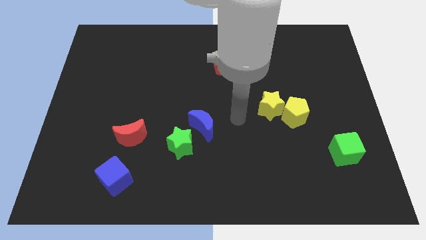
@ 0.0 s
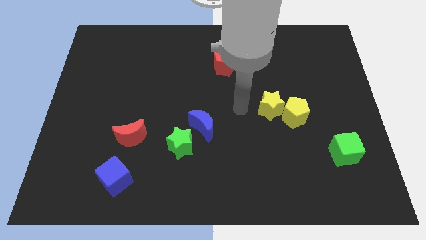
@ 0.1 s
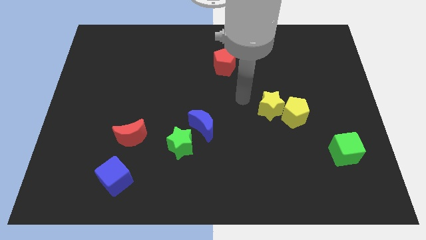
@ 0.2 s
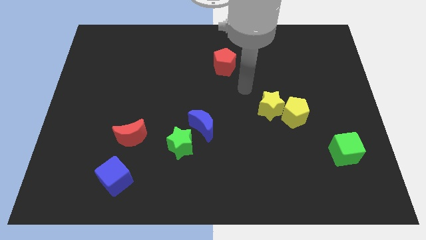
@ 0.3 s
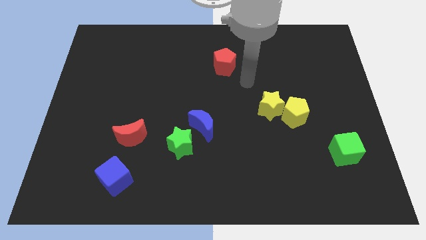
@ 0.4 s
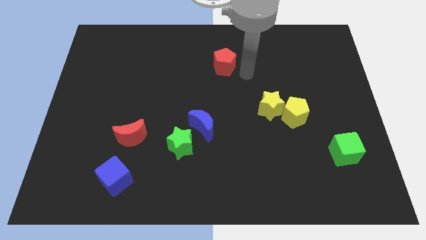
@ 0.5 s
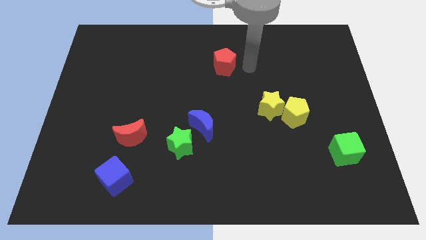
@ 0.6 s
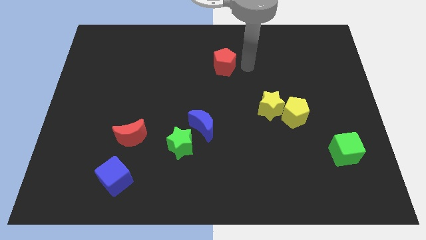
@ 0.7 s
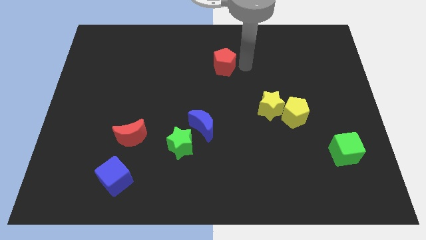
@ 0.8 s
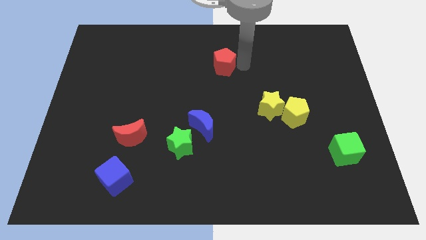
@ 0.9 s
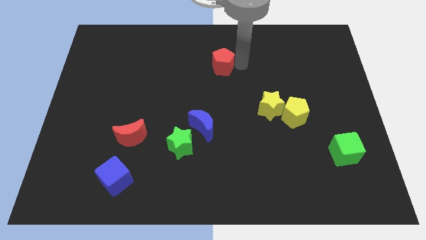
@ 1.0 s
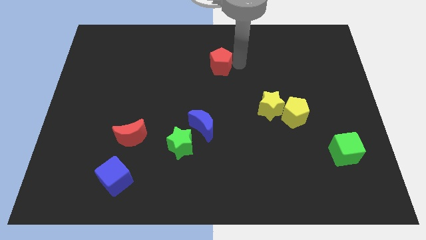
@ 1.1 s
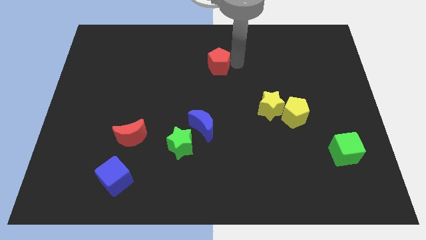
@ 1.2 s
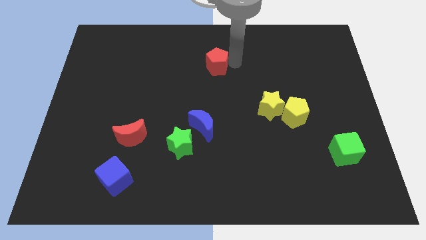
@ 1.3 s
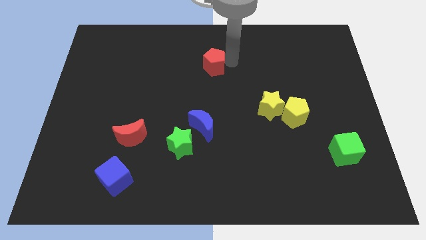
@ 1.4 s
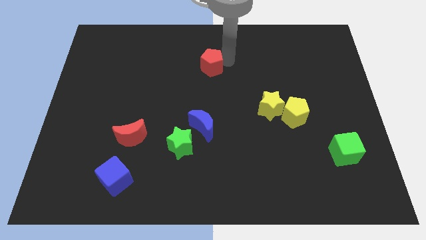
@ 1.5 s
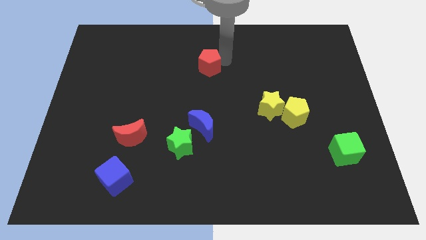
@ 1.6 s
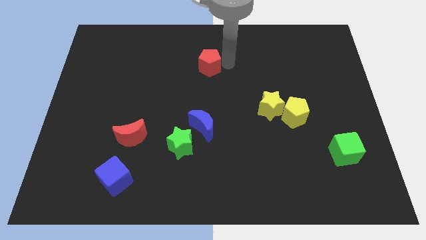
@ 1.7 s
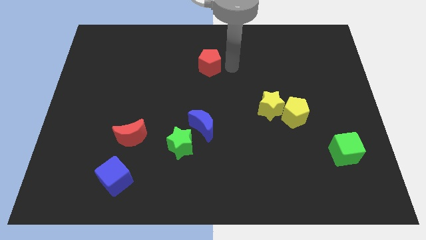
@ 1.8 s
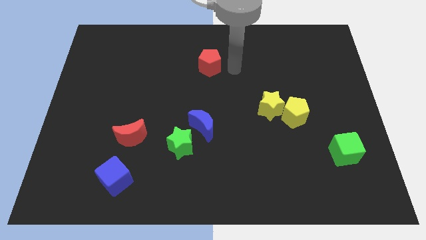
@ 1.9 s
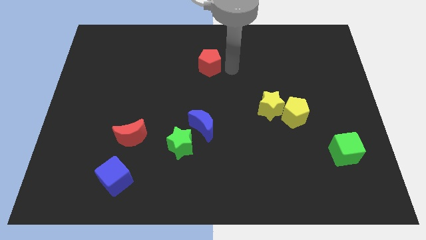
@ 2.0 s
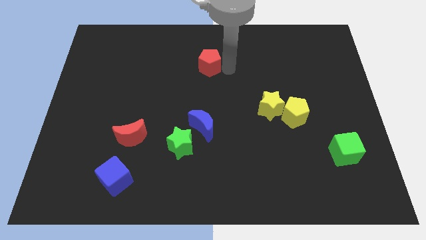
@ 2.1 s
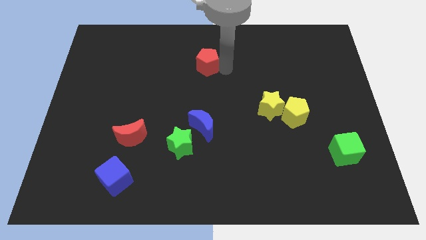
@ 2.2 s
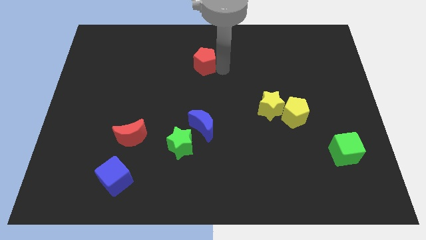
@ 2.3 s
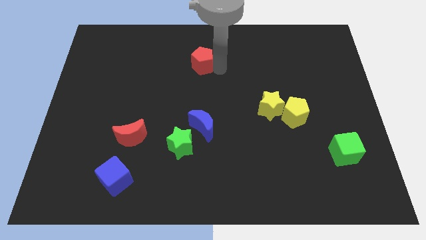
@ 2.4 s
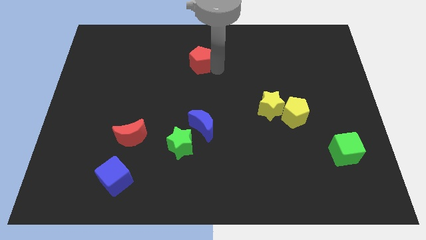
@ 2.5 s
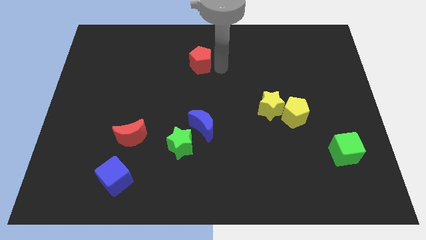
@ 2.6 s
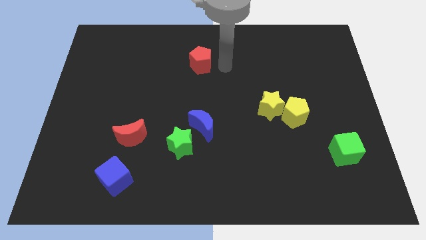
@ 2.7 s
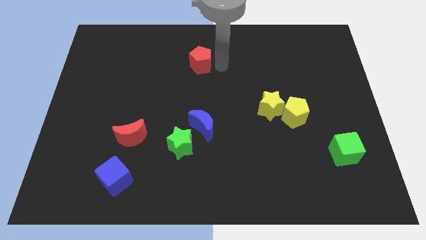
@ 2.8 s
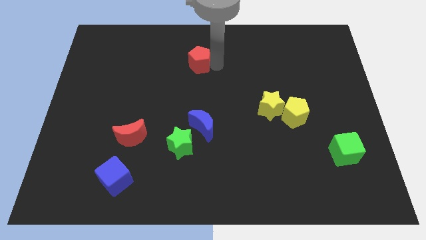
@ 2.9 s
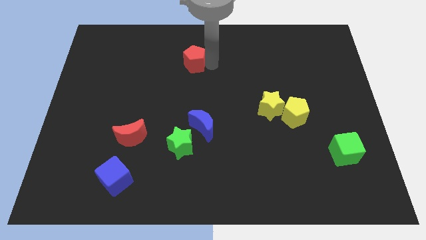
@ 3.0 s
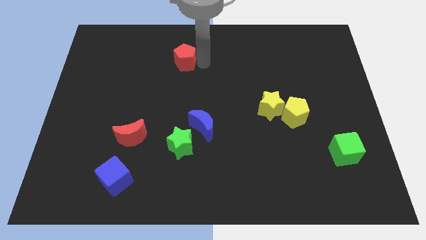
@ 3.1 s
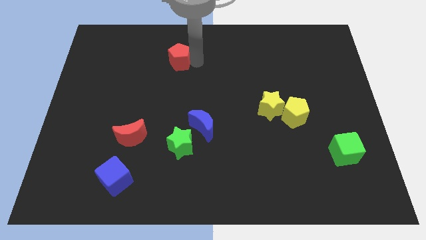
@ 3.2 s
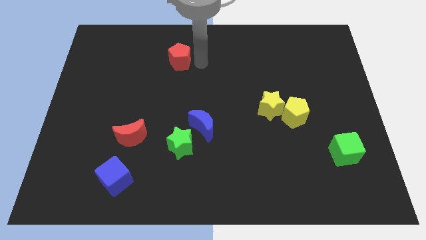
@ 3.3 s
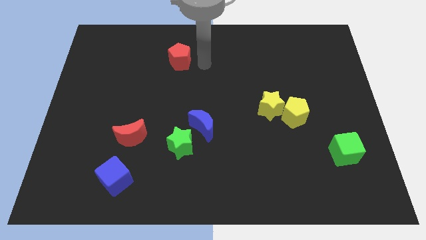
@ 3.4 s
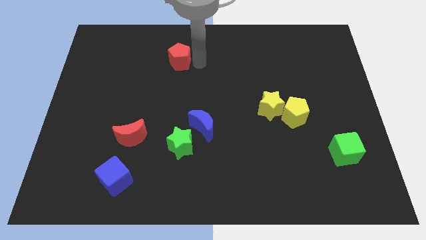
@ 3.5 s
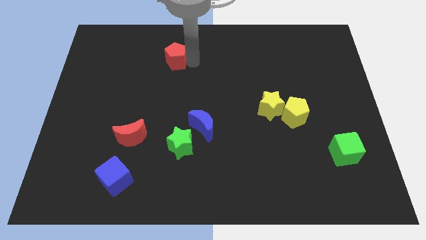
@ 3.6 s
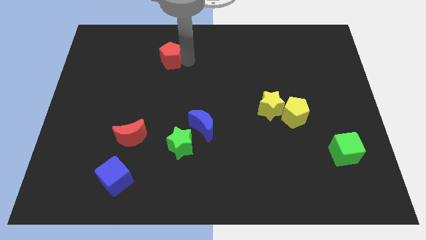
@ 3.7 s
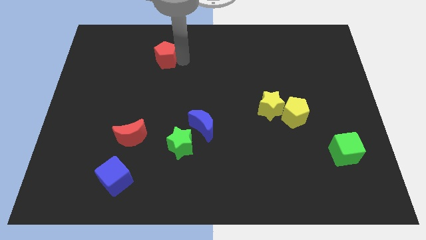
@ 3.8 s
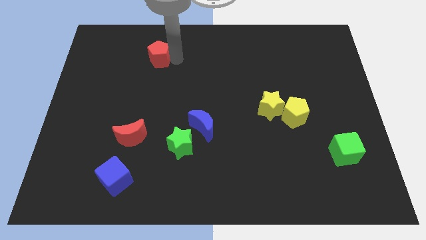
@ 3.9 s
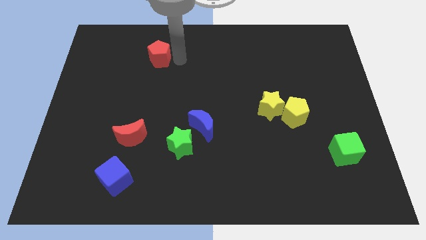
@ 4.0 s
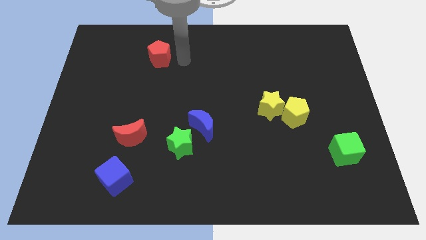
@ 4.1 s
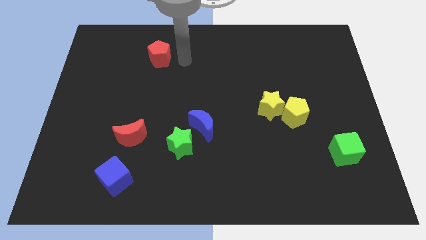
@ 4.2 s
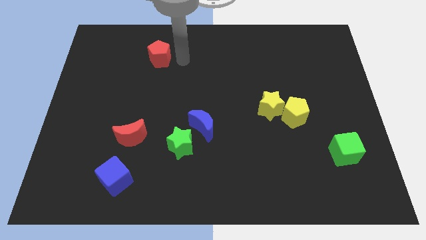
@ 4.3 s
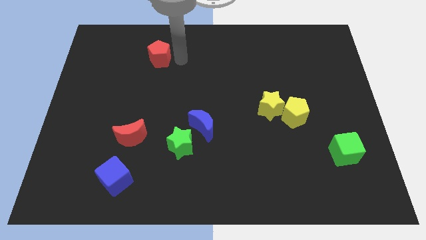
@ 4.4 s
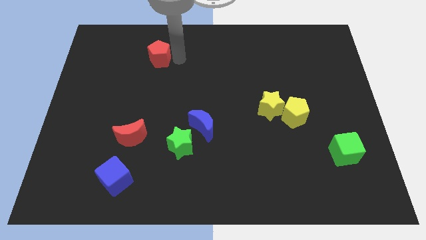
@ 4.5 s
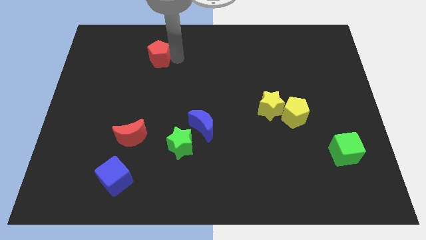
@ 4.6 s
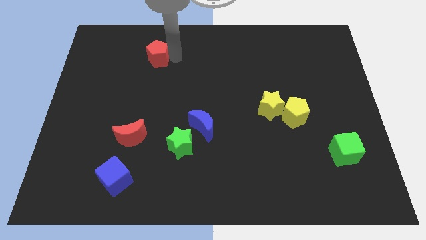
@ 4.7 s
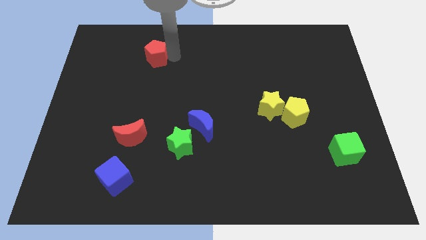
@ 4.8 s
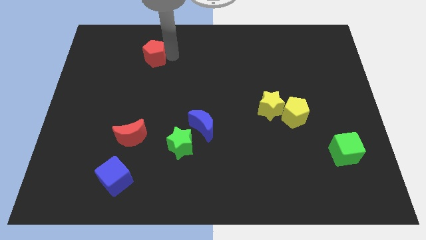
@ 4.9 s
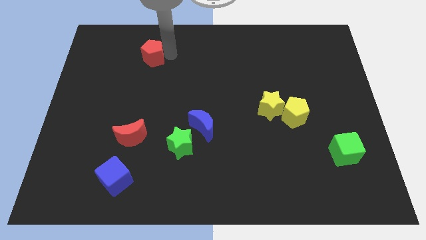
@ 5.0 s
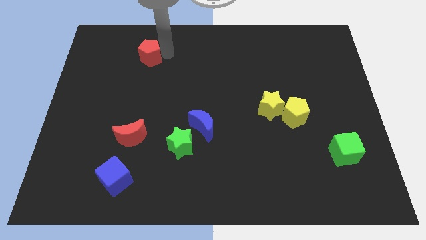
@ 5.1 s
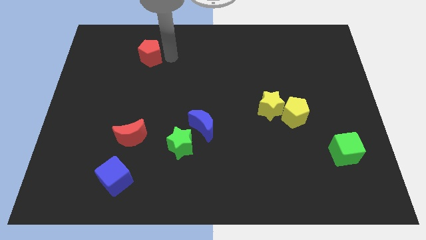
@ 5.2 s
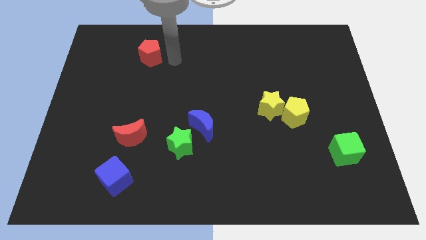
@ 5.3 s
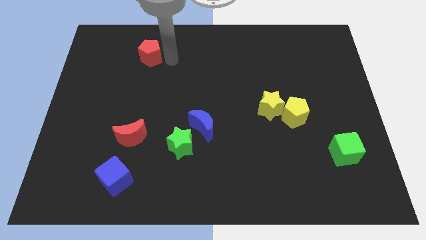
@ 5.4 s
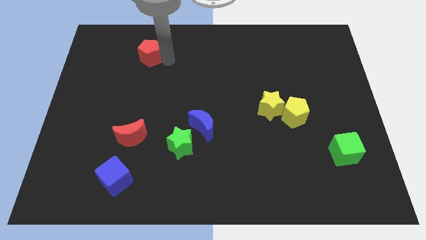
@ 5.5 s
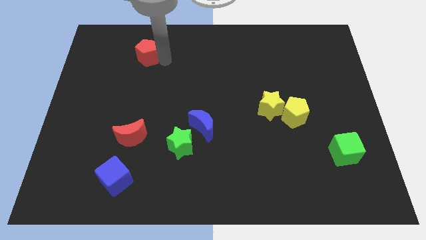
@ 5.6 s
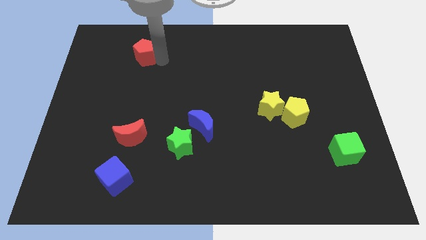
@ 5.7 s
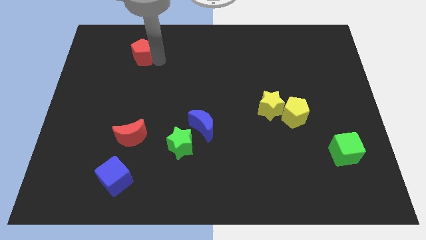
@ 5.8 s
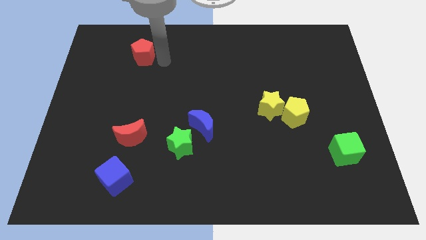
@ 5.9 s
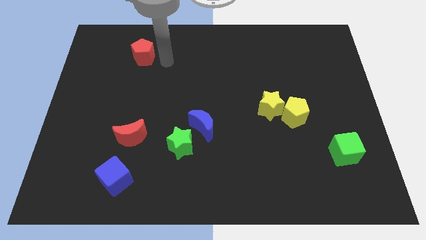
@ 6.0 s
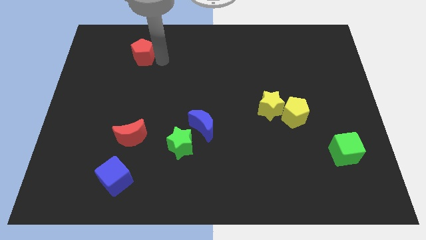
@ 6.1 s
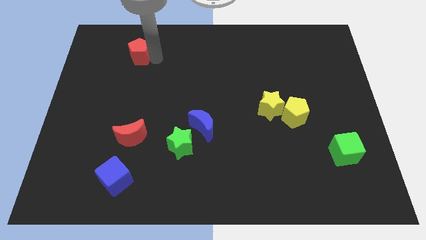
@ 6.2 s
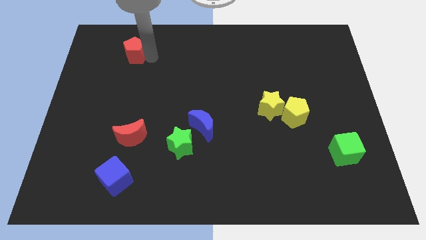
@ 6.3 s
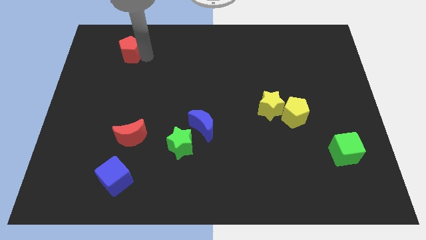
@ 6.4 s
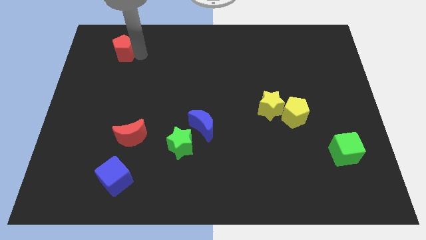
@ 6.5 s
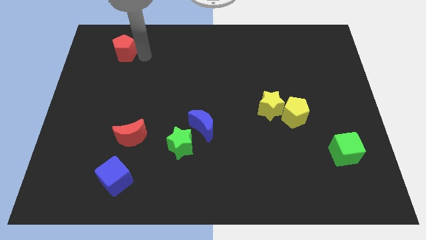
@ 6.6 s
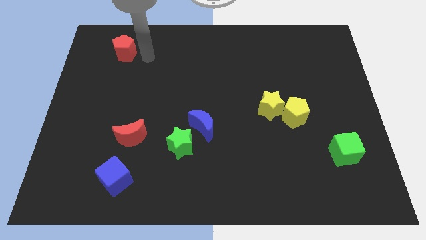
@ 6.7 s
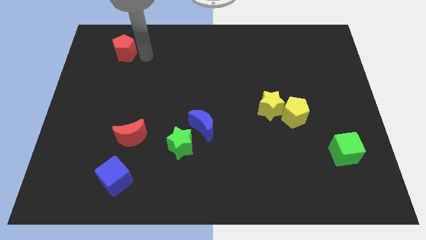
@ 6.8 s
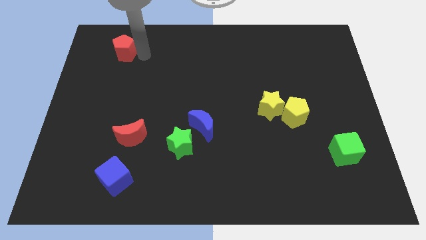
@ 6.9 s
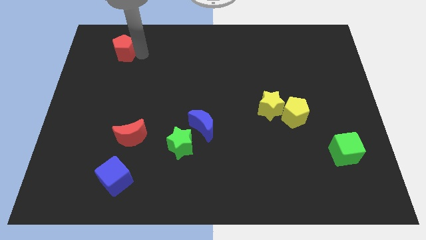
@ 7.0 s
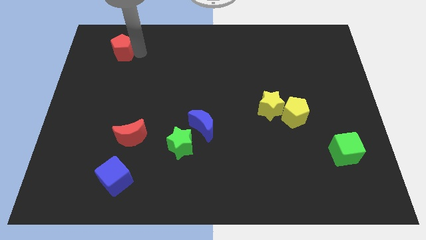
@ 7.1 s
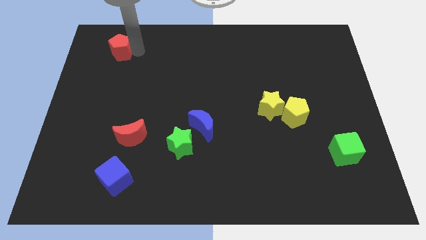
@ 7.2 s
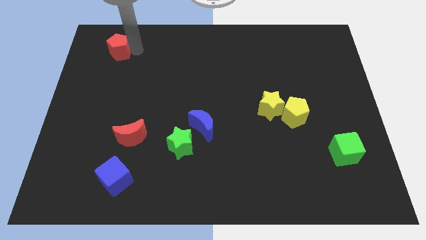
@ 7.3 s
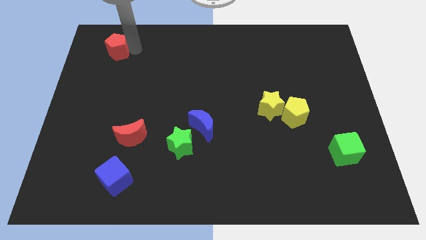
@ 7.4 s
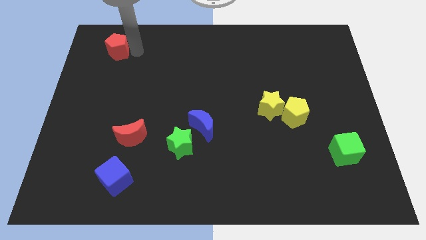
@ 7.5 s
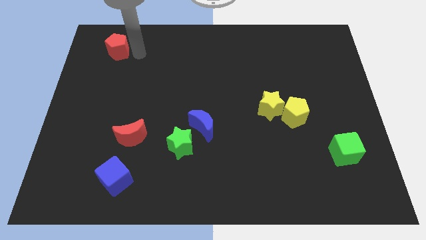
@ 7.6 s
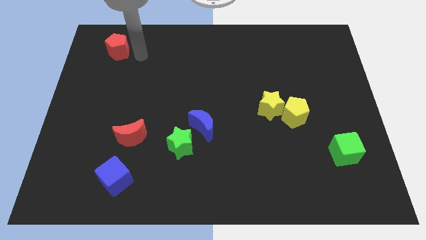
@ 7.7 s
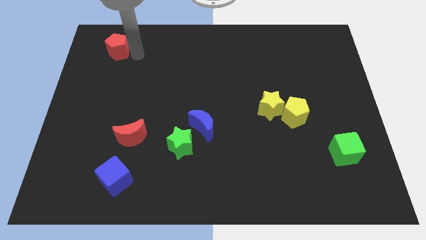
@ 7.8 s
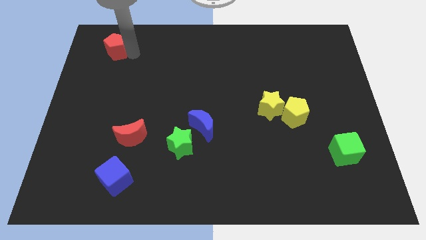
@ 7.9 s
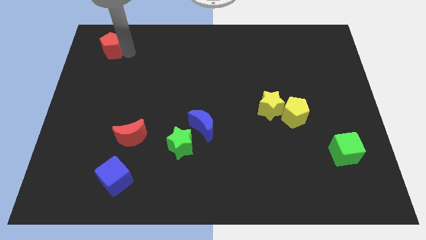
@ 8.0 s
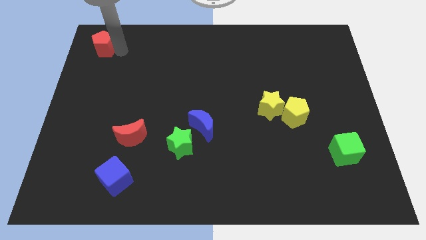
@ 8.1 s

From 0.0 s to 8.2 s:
slide the red pentagon to the top left
